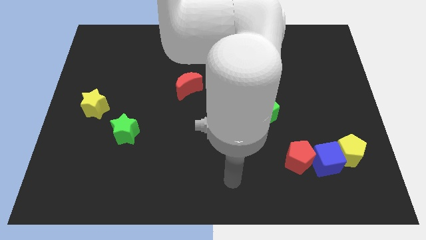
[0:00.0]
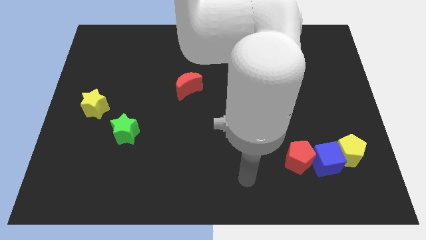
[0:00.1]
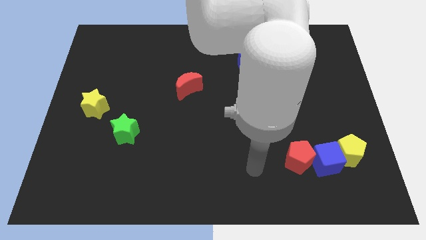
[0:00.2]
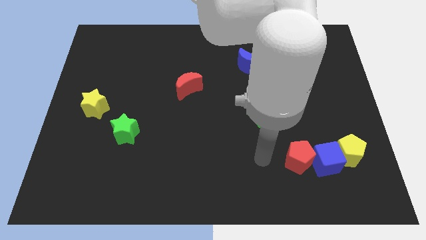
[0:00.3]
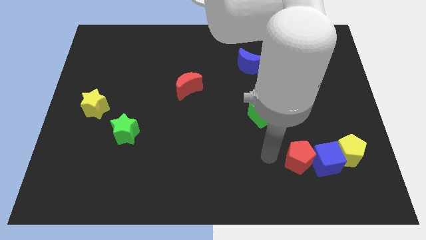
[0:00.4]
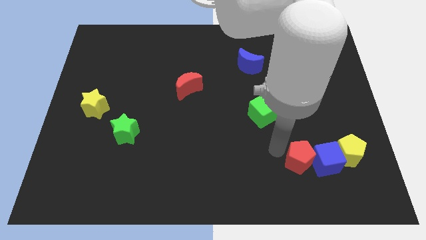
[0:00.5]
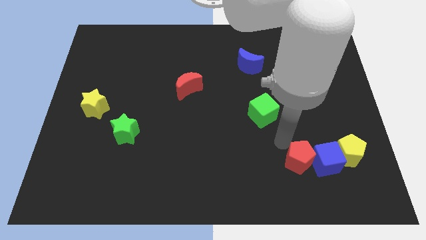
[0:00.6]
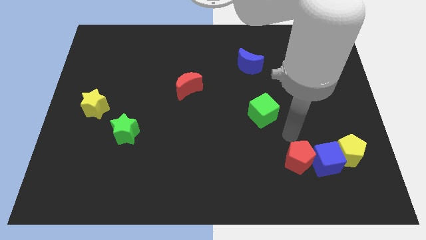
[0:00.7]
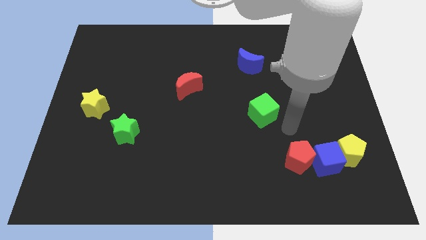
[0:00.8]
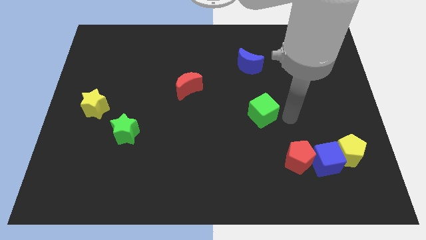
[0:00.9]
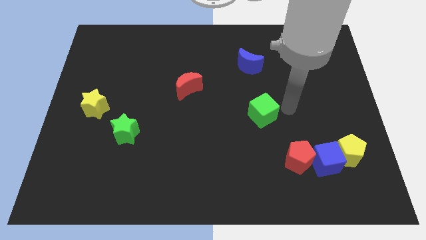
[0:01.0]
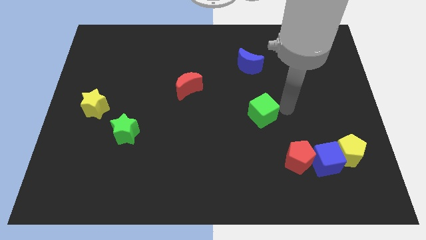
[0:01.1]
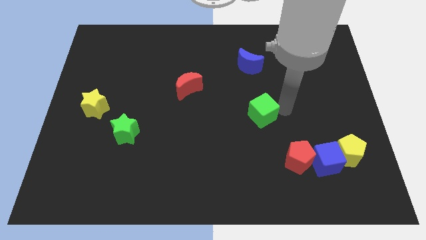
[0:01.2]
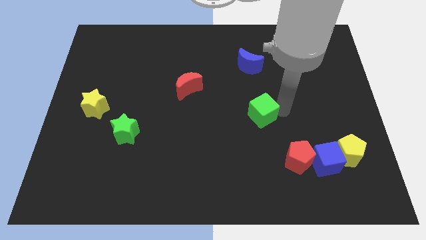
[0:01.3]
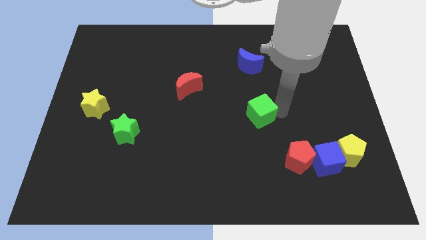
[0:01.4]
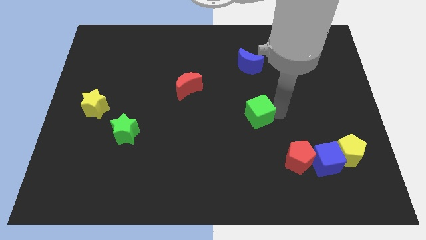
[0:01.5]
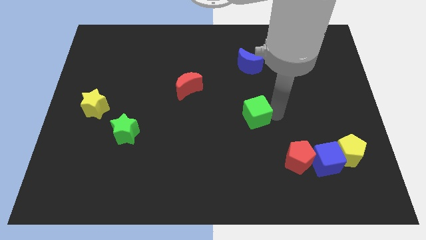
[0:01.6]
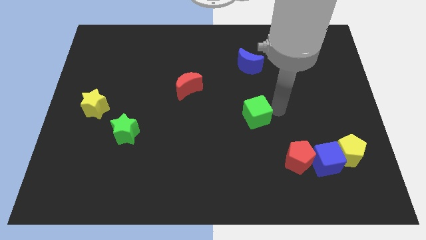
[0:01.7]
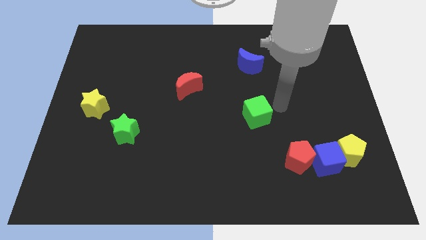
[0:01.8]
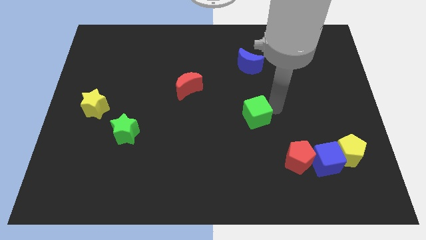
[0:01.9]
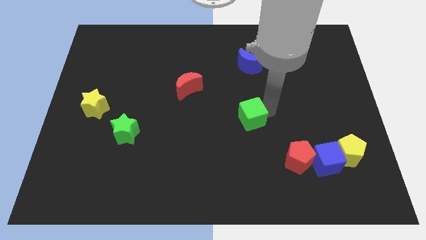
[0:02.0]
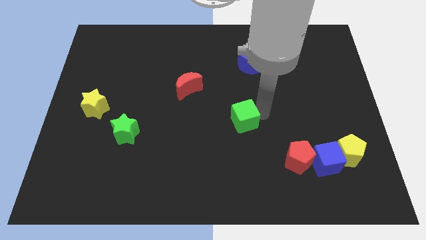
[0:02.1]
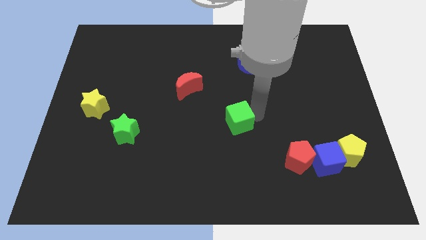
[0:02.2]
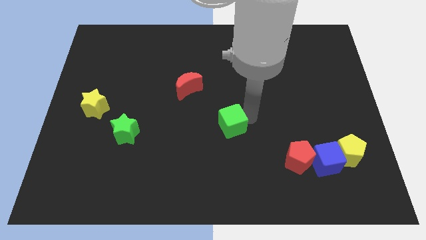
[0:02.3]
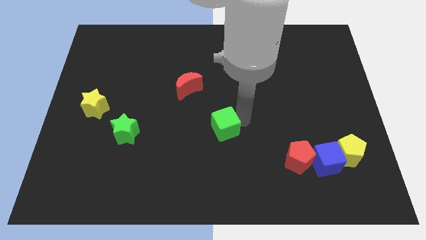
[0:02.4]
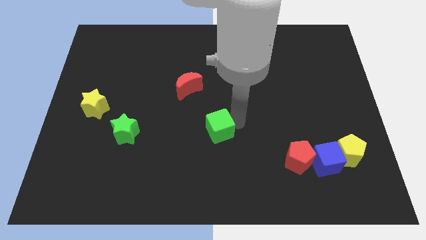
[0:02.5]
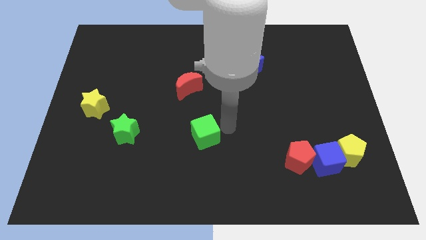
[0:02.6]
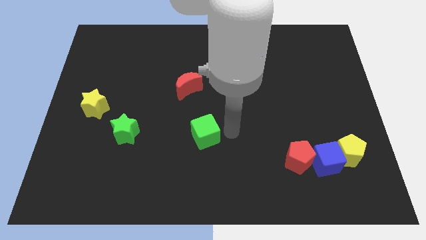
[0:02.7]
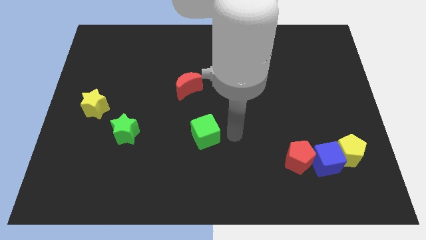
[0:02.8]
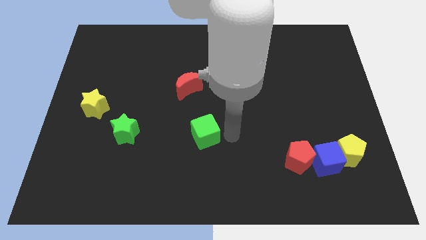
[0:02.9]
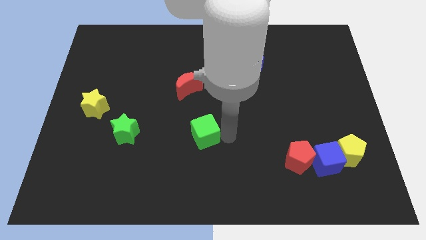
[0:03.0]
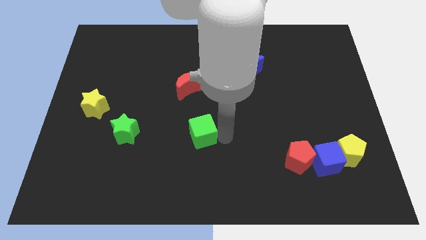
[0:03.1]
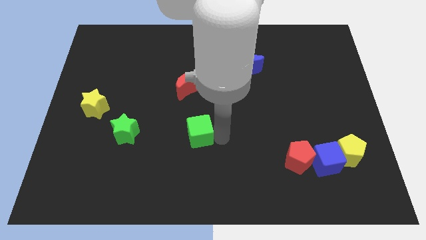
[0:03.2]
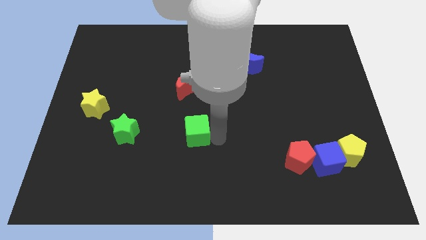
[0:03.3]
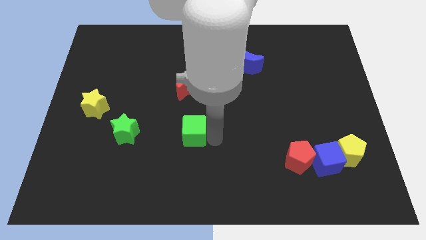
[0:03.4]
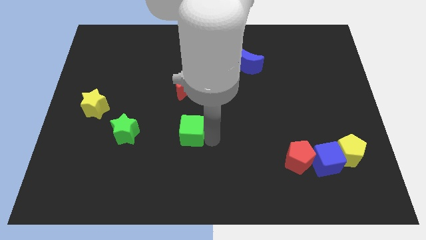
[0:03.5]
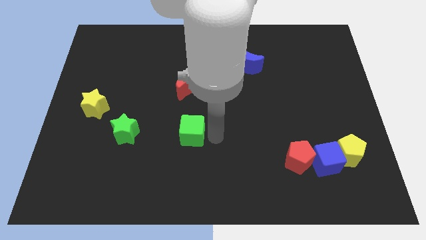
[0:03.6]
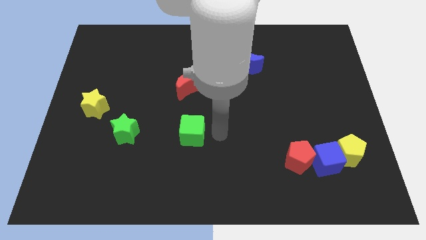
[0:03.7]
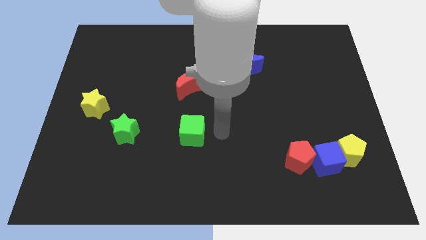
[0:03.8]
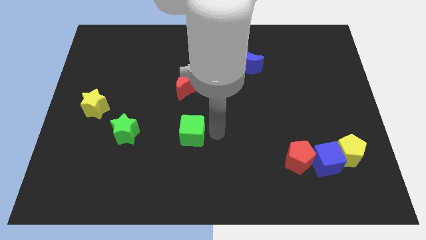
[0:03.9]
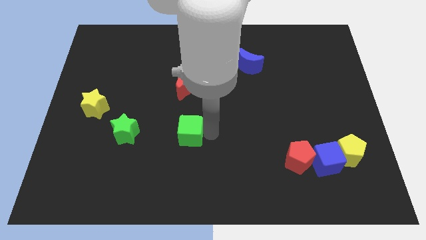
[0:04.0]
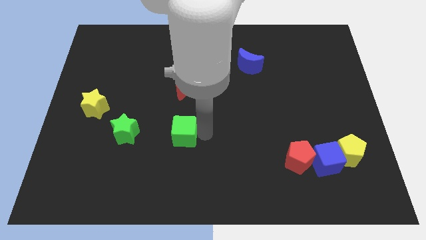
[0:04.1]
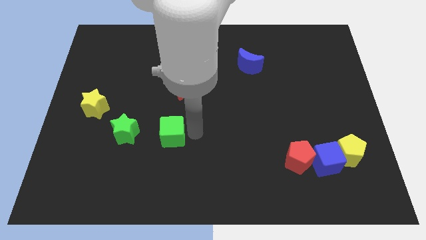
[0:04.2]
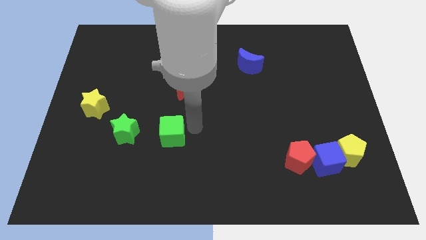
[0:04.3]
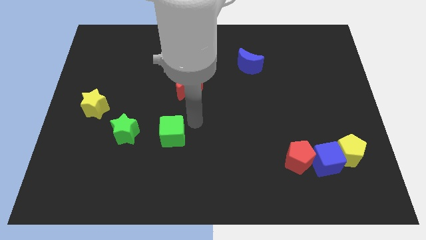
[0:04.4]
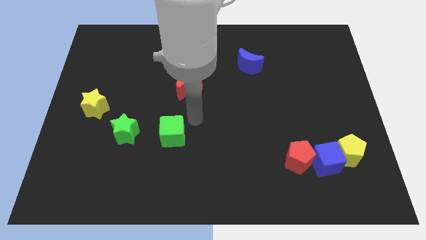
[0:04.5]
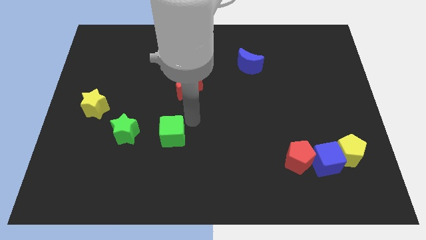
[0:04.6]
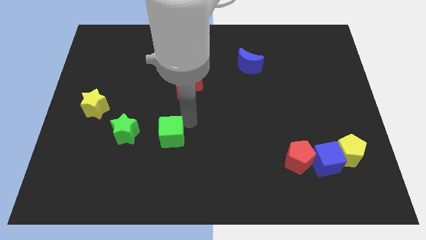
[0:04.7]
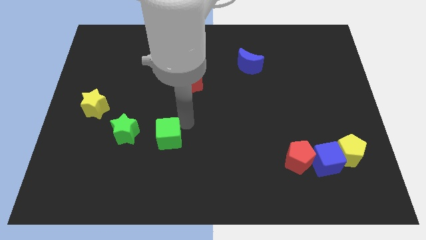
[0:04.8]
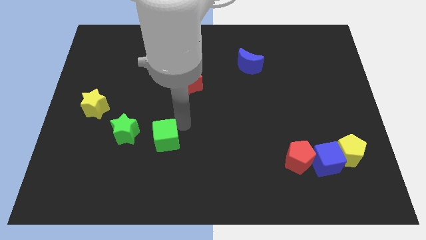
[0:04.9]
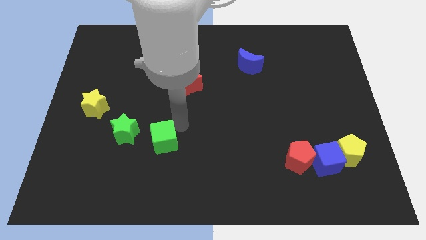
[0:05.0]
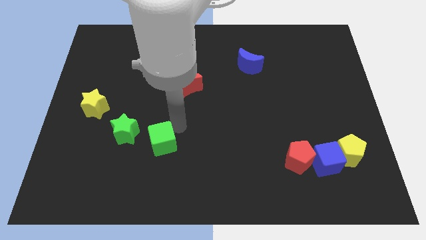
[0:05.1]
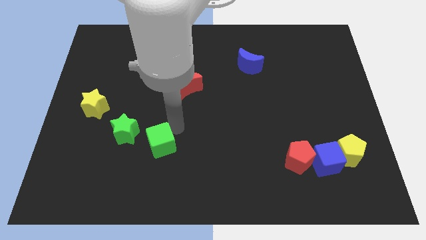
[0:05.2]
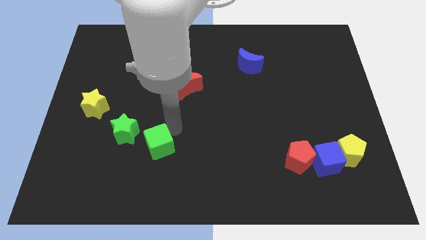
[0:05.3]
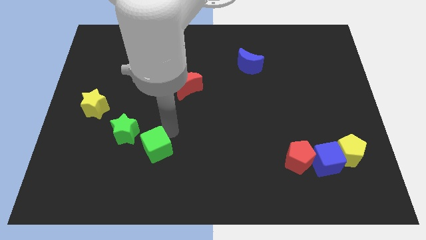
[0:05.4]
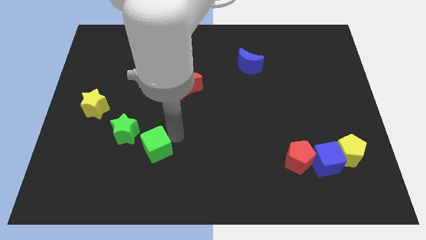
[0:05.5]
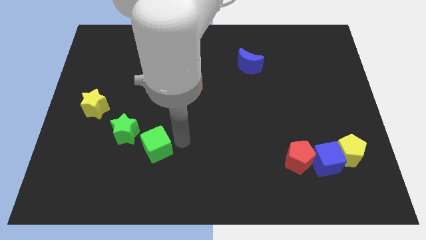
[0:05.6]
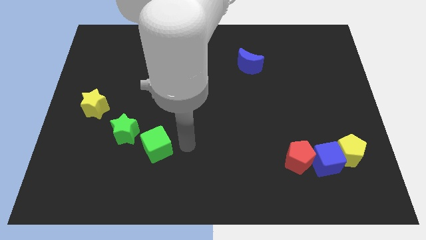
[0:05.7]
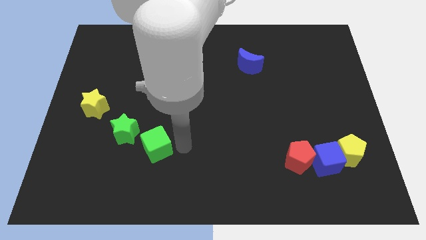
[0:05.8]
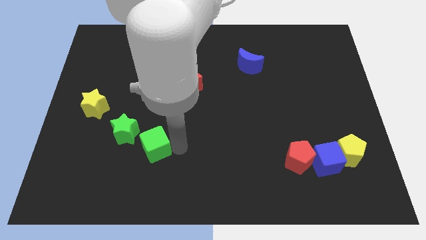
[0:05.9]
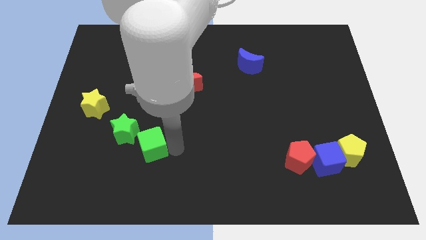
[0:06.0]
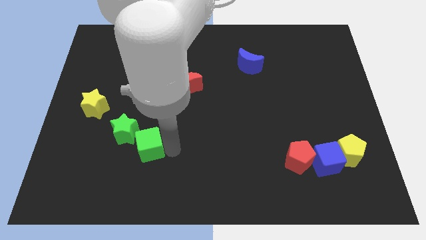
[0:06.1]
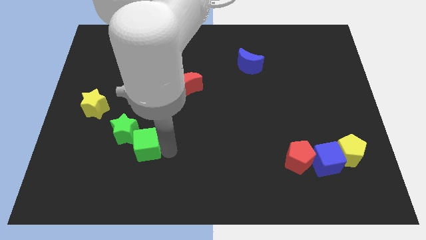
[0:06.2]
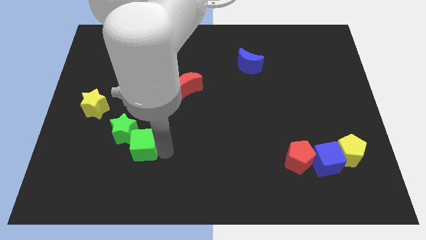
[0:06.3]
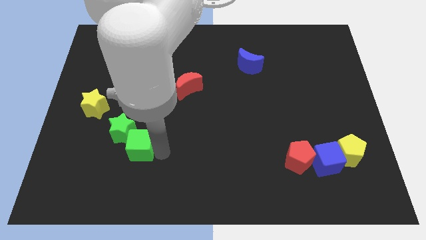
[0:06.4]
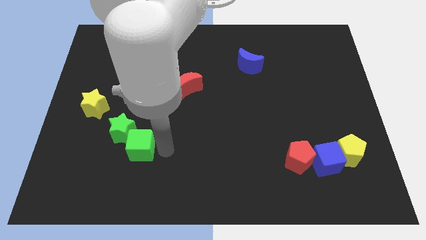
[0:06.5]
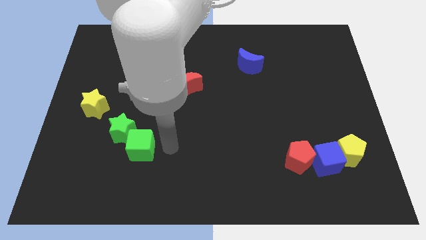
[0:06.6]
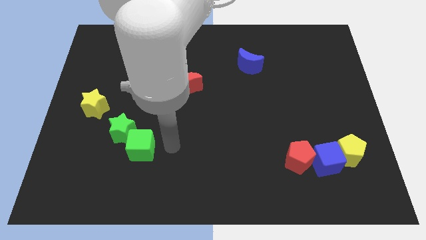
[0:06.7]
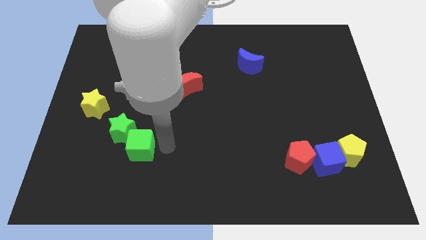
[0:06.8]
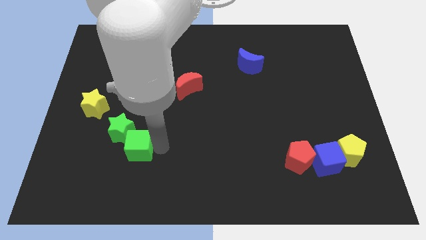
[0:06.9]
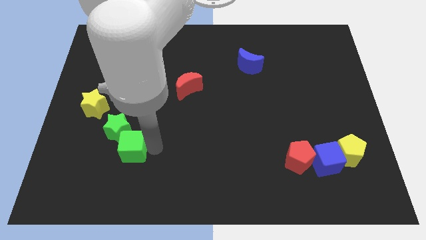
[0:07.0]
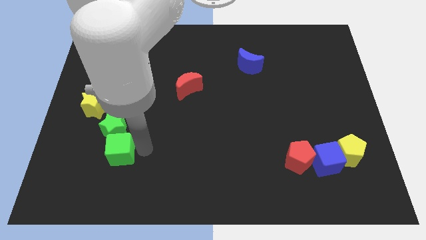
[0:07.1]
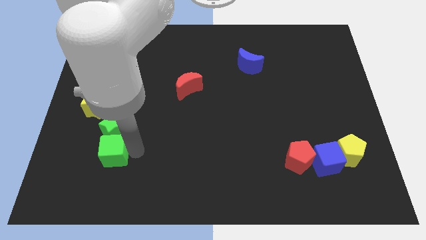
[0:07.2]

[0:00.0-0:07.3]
move the green cube to the bottom left side of the green star
